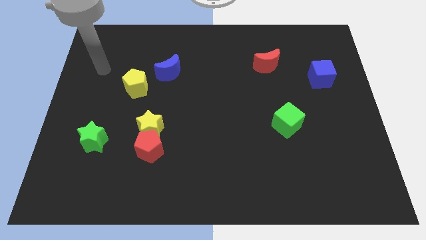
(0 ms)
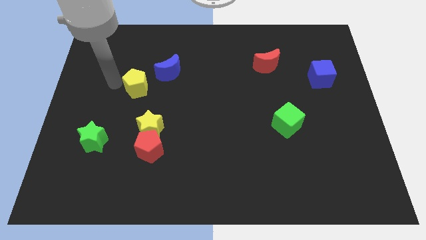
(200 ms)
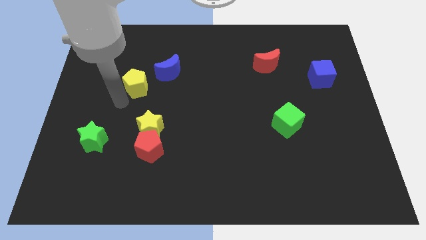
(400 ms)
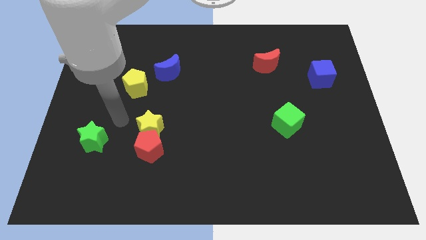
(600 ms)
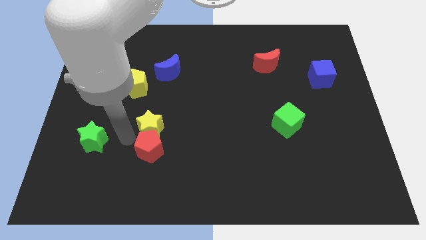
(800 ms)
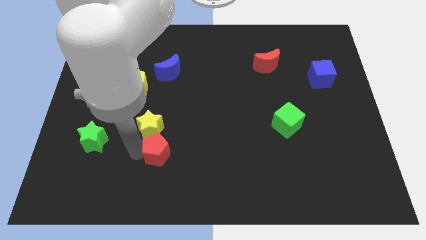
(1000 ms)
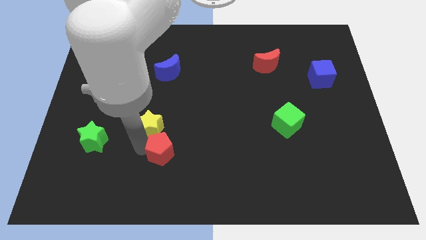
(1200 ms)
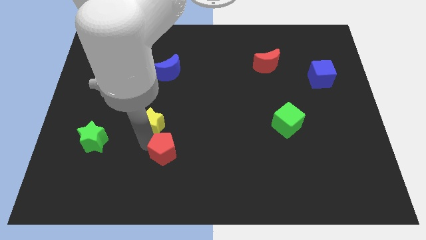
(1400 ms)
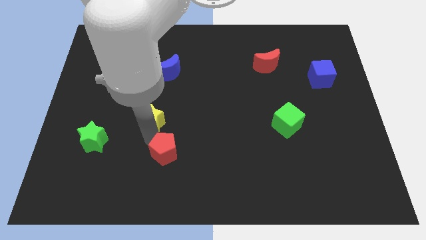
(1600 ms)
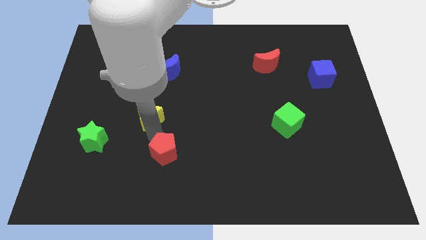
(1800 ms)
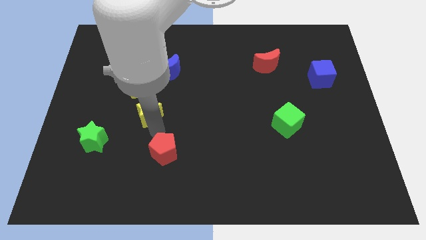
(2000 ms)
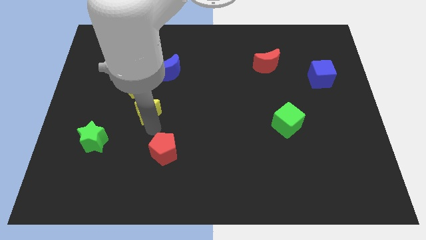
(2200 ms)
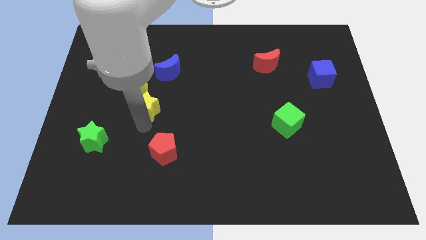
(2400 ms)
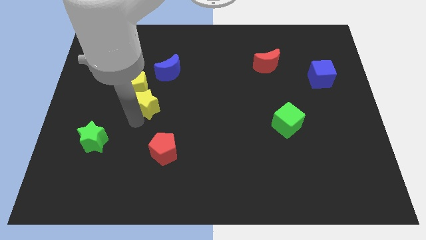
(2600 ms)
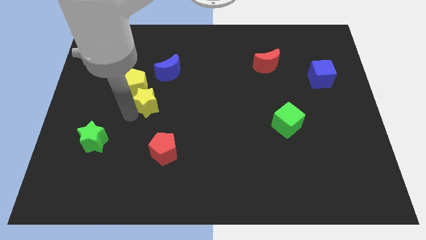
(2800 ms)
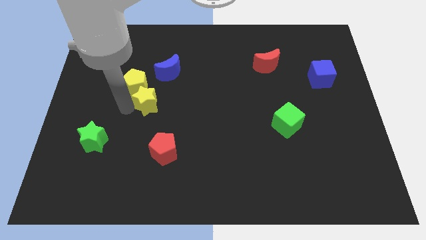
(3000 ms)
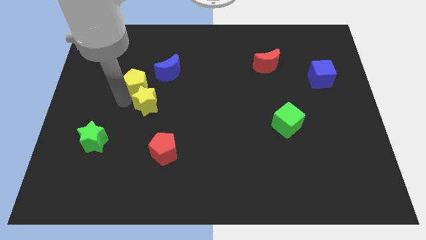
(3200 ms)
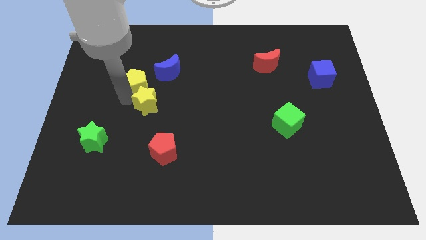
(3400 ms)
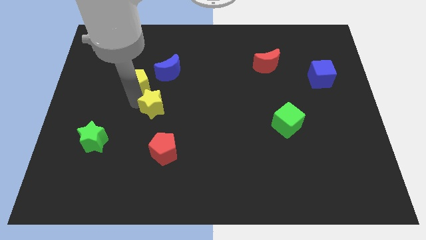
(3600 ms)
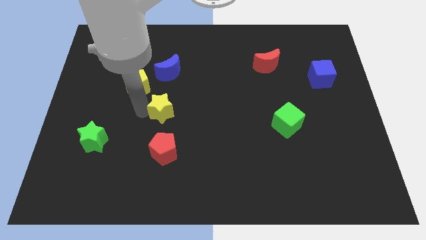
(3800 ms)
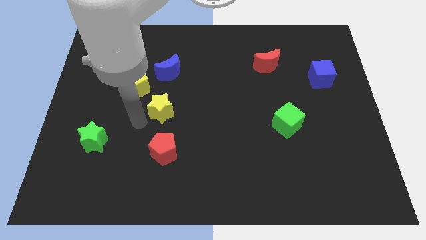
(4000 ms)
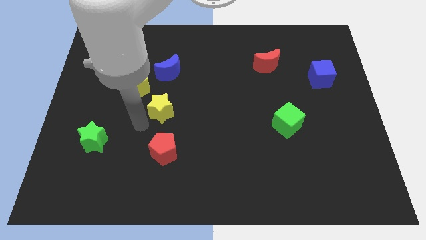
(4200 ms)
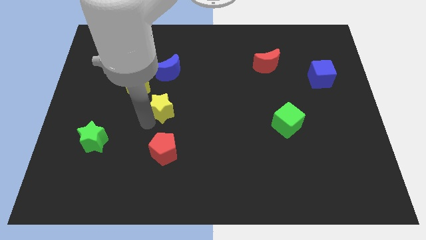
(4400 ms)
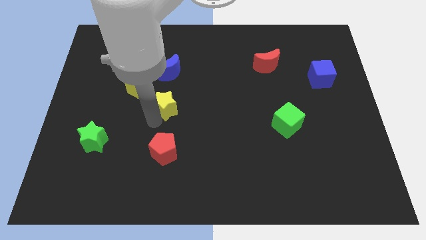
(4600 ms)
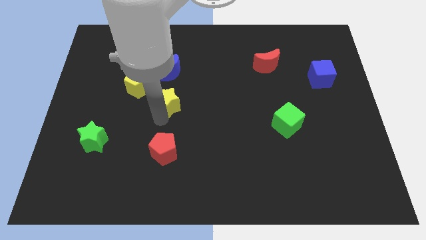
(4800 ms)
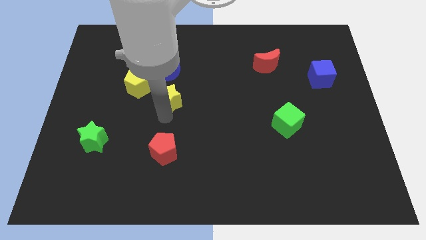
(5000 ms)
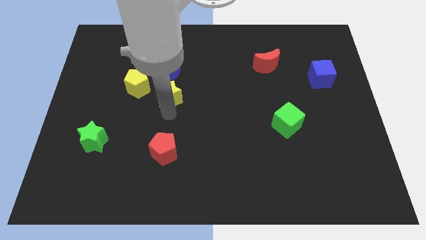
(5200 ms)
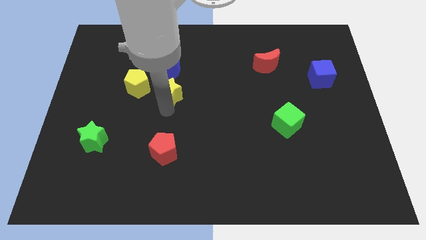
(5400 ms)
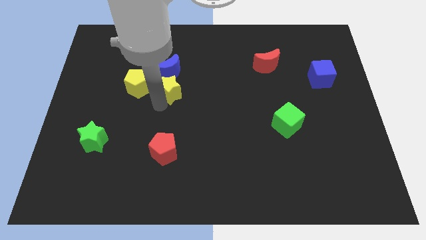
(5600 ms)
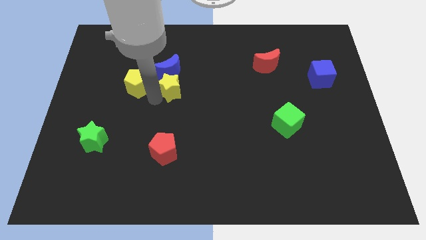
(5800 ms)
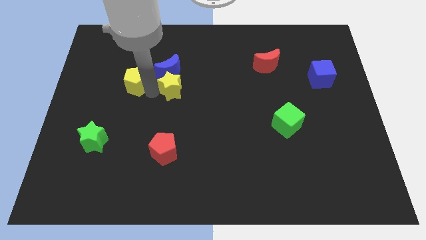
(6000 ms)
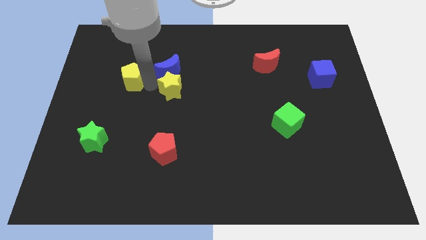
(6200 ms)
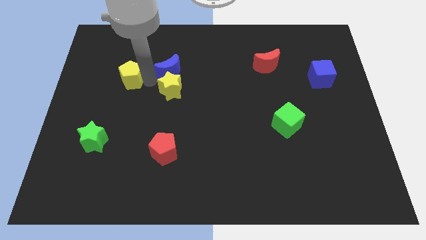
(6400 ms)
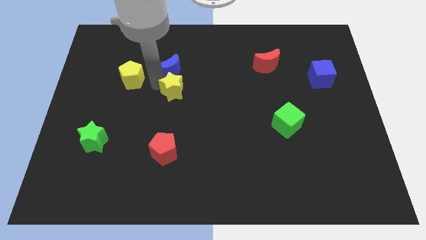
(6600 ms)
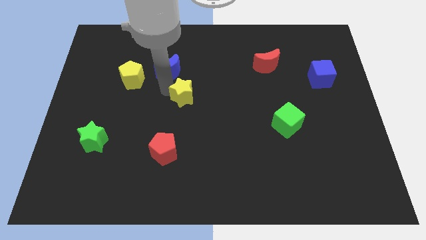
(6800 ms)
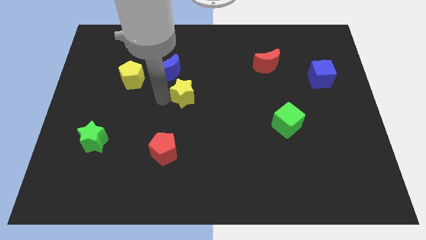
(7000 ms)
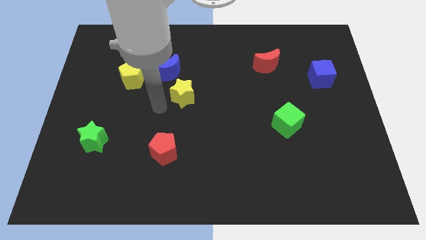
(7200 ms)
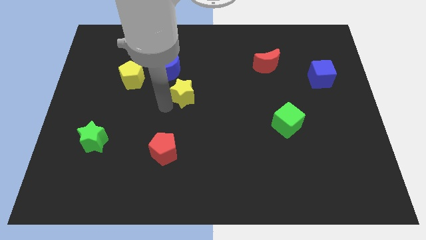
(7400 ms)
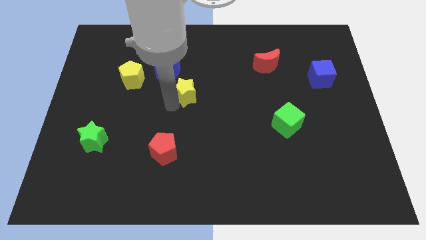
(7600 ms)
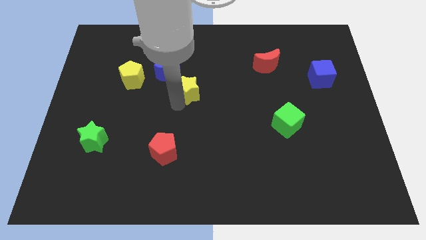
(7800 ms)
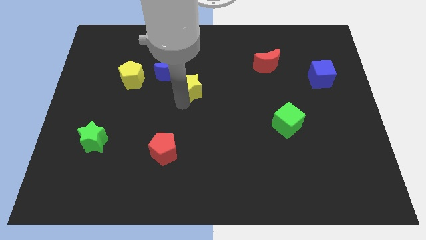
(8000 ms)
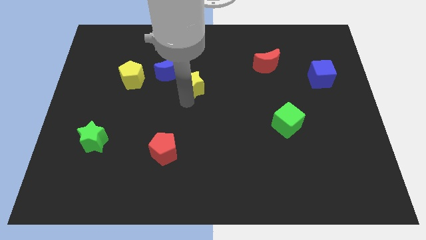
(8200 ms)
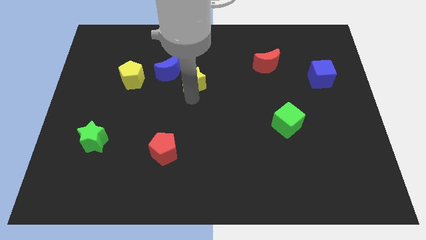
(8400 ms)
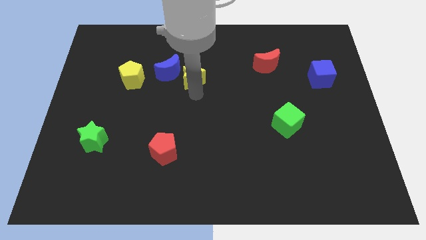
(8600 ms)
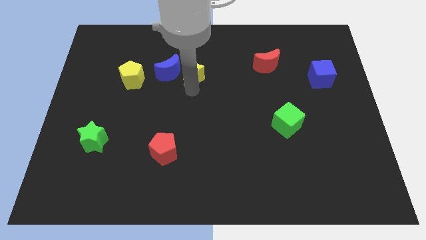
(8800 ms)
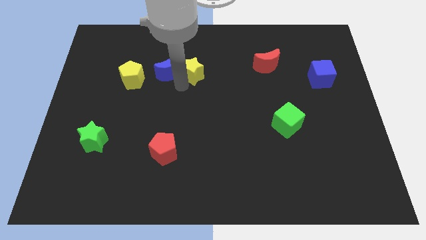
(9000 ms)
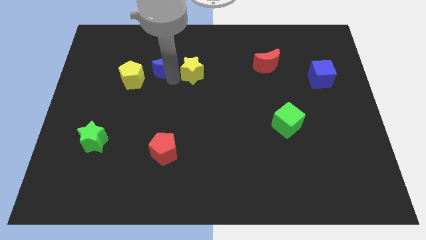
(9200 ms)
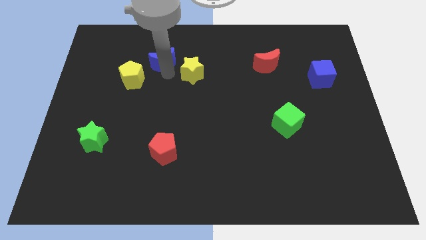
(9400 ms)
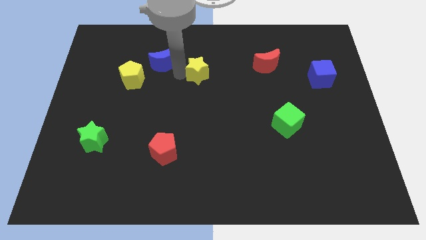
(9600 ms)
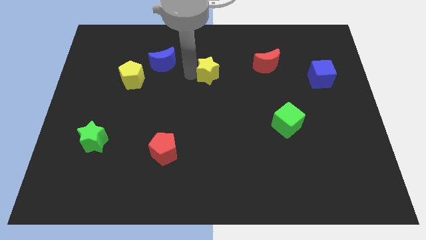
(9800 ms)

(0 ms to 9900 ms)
put the yellow star to the left of the red moon

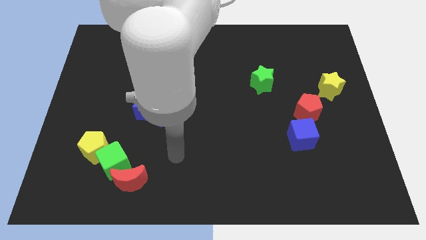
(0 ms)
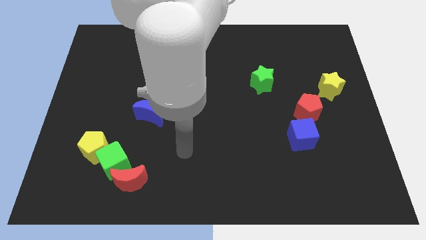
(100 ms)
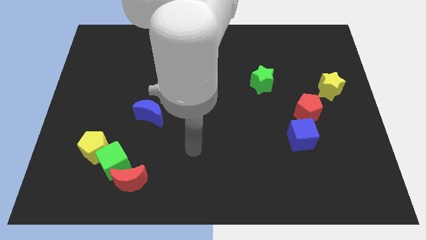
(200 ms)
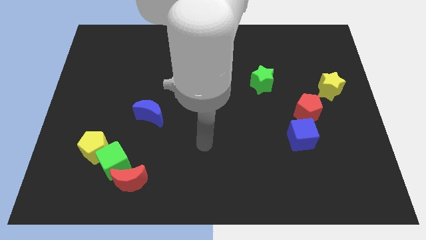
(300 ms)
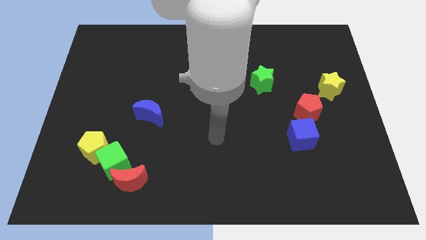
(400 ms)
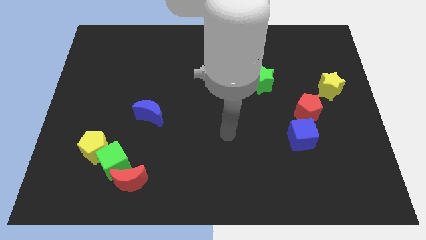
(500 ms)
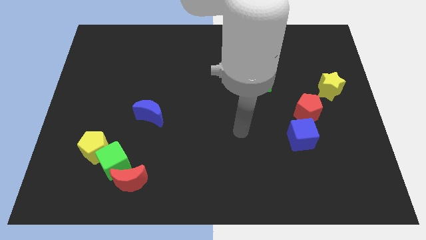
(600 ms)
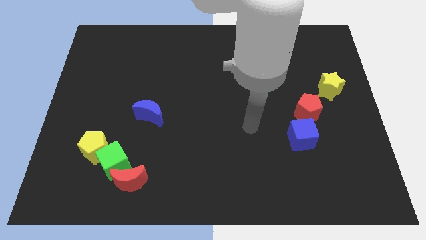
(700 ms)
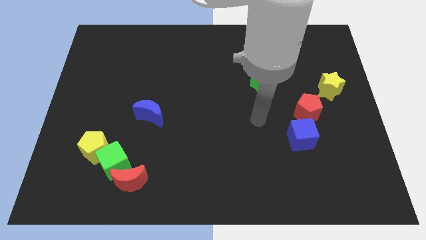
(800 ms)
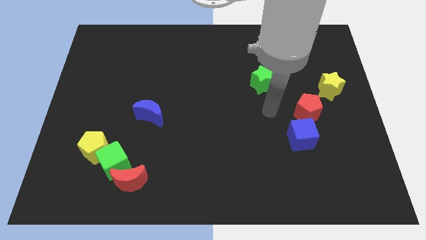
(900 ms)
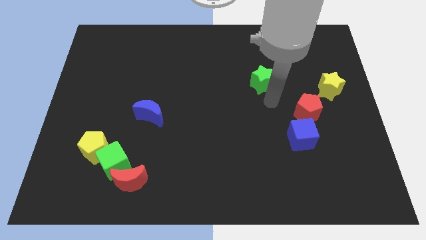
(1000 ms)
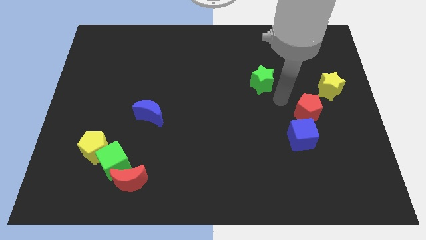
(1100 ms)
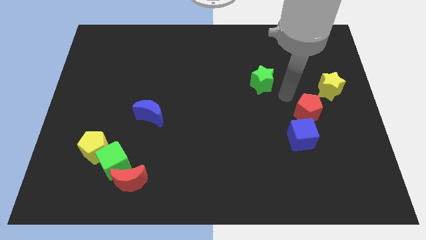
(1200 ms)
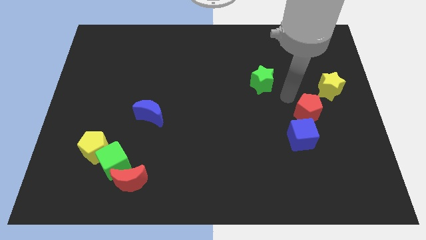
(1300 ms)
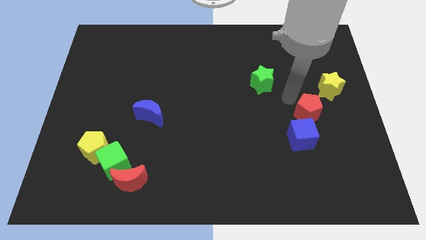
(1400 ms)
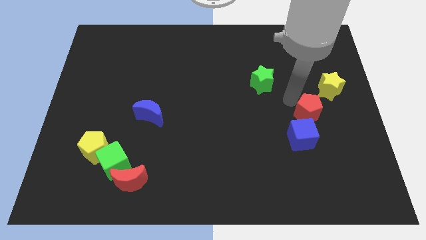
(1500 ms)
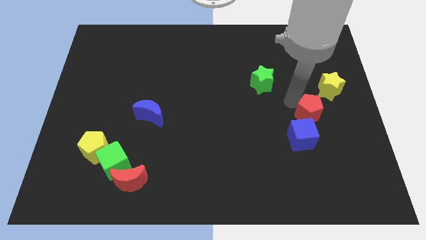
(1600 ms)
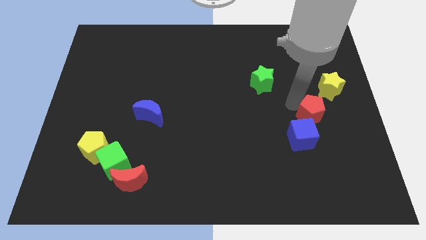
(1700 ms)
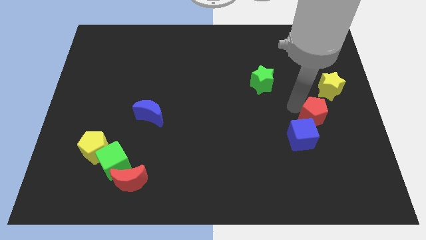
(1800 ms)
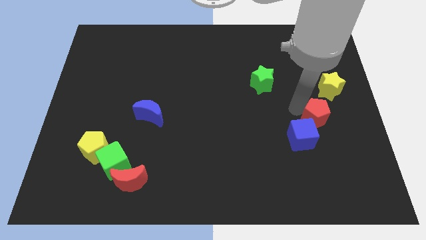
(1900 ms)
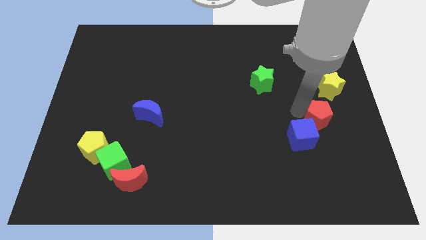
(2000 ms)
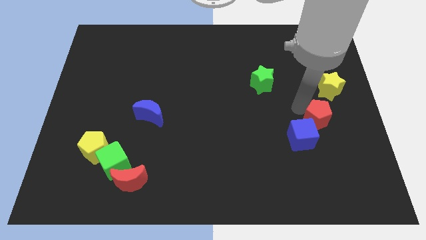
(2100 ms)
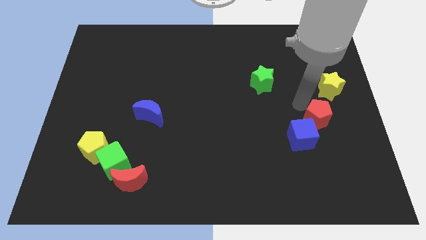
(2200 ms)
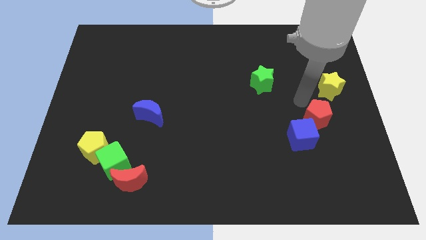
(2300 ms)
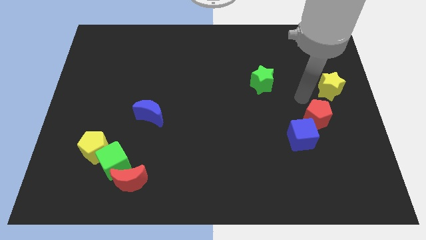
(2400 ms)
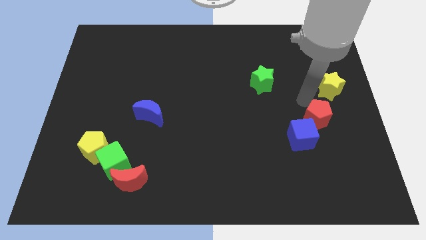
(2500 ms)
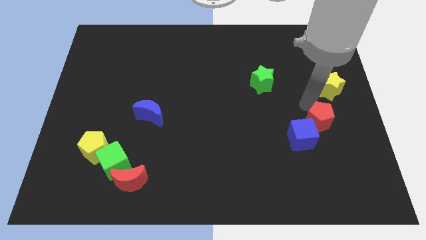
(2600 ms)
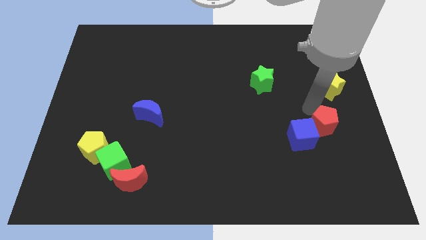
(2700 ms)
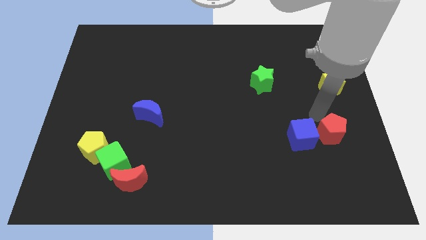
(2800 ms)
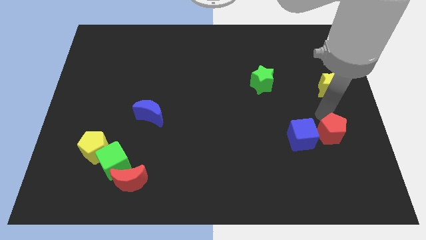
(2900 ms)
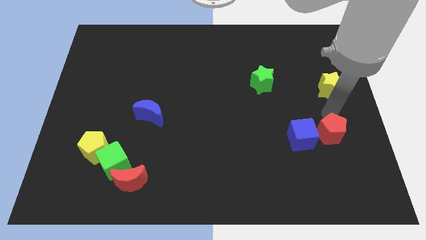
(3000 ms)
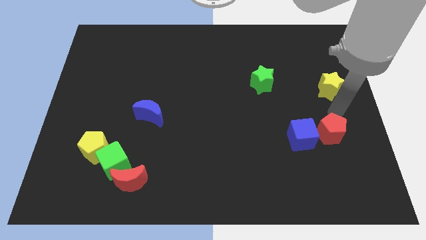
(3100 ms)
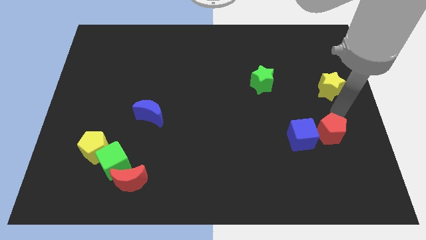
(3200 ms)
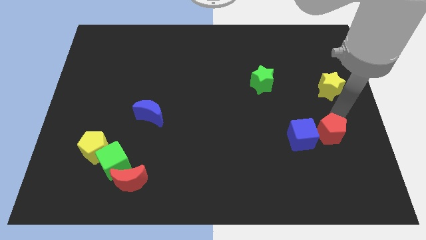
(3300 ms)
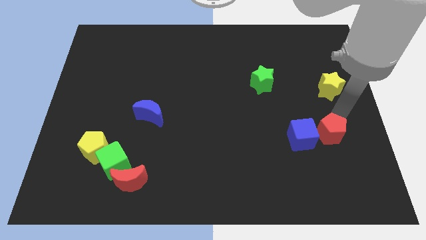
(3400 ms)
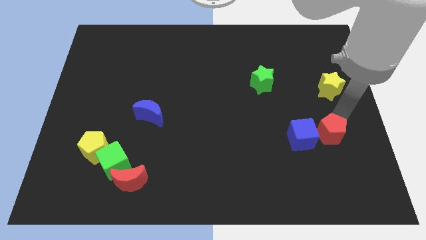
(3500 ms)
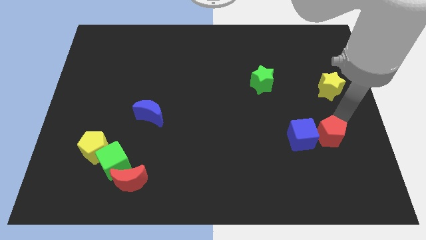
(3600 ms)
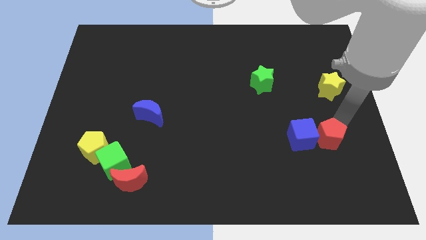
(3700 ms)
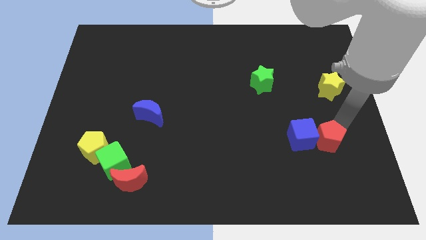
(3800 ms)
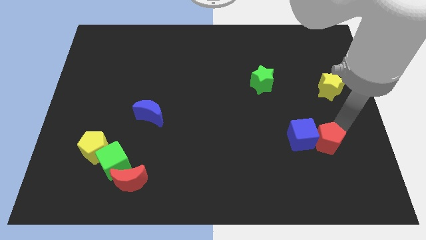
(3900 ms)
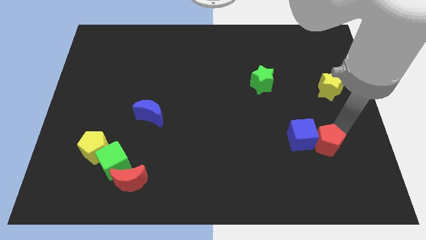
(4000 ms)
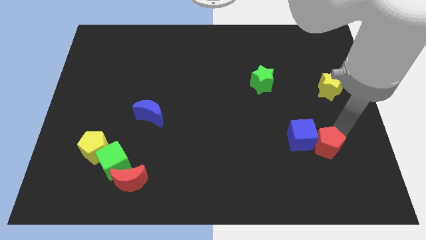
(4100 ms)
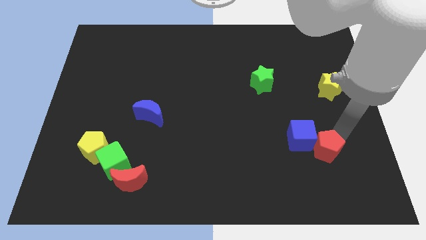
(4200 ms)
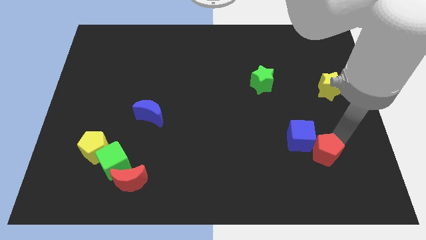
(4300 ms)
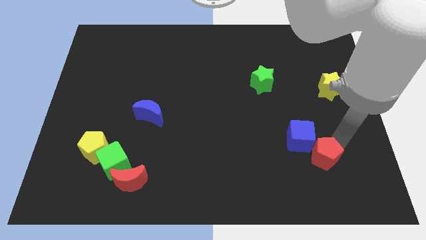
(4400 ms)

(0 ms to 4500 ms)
put the red pentagon below the blue cube
